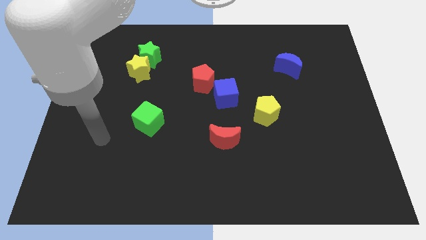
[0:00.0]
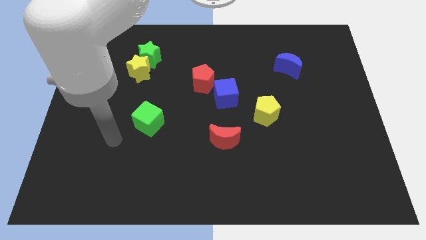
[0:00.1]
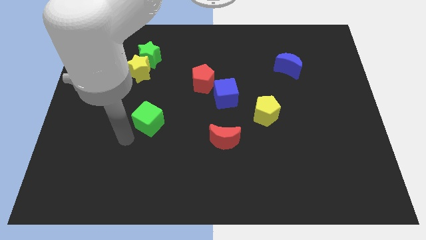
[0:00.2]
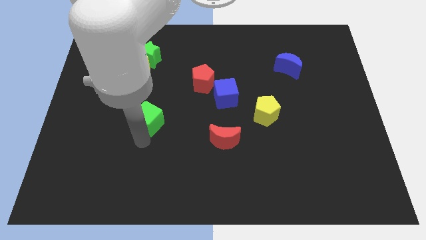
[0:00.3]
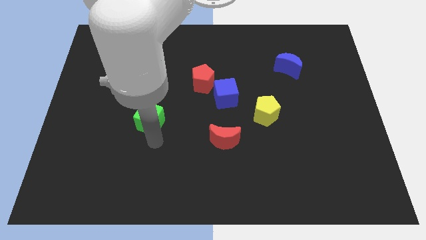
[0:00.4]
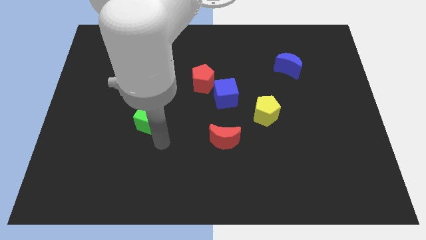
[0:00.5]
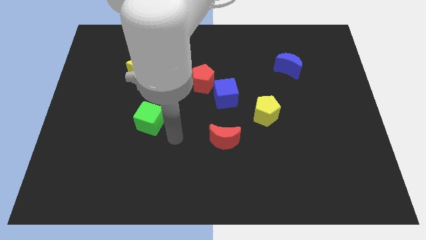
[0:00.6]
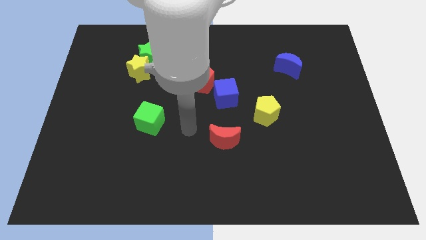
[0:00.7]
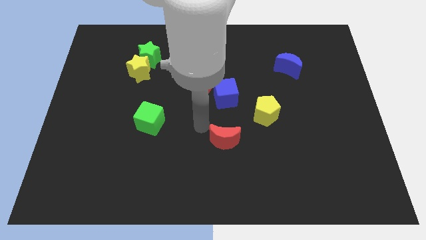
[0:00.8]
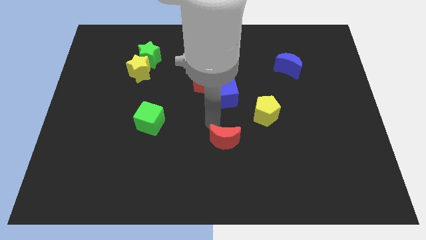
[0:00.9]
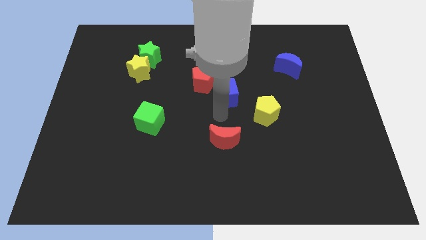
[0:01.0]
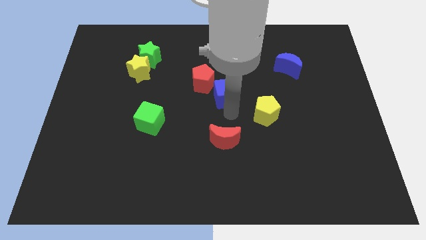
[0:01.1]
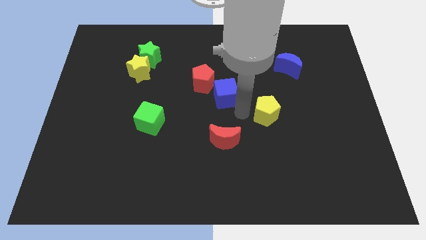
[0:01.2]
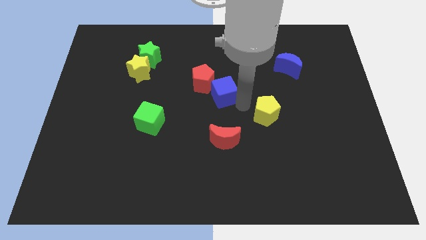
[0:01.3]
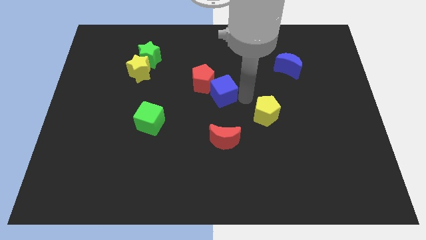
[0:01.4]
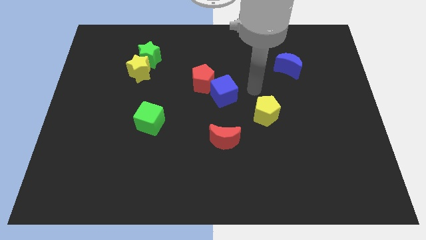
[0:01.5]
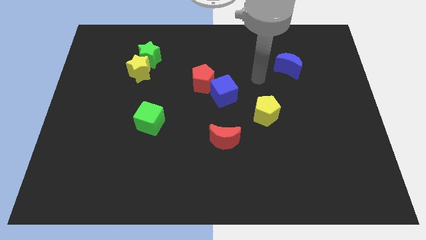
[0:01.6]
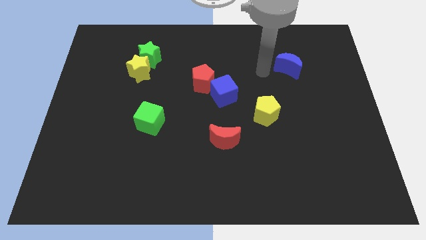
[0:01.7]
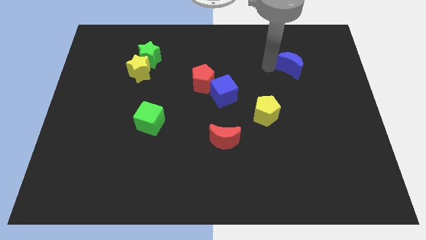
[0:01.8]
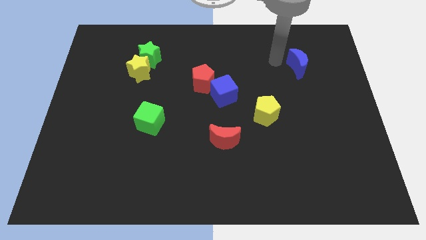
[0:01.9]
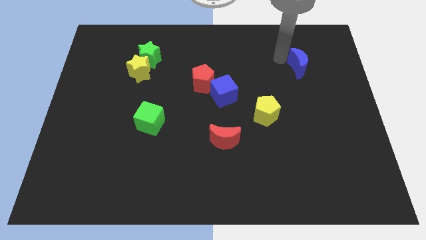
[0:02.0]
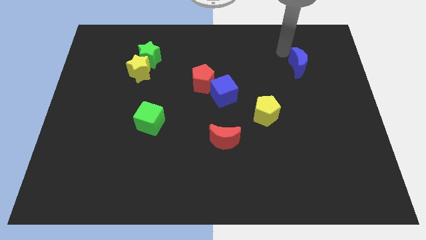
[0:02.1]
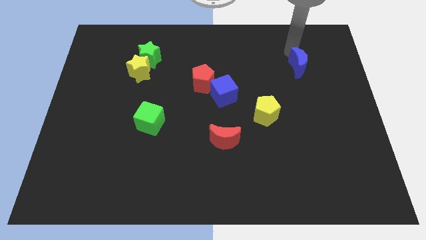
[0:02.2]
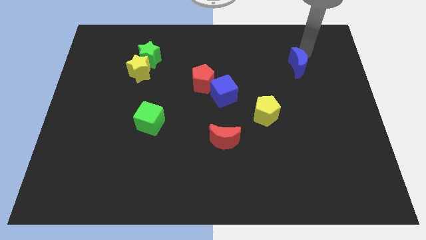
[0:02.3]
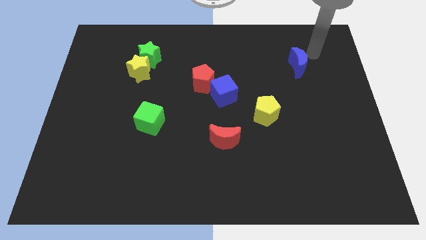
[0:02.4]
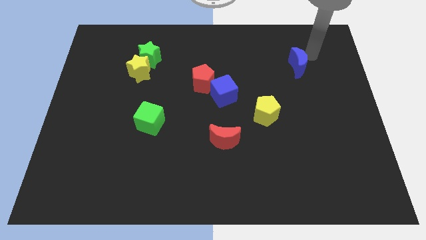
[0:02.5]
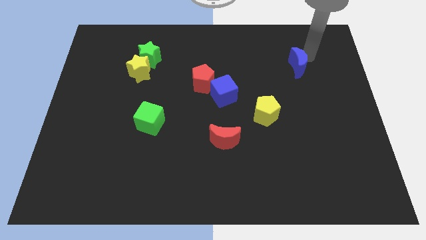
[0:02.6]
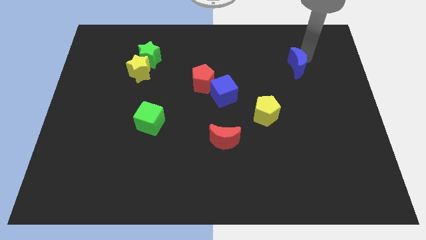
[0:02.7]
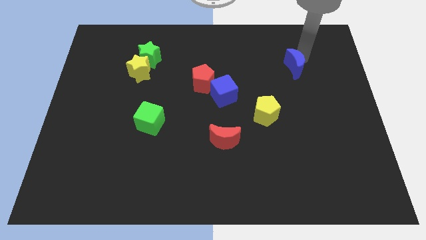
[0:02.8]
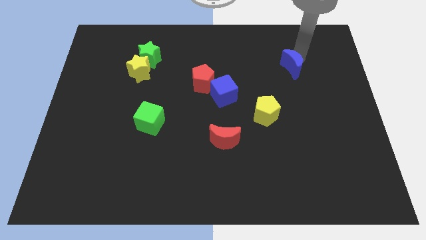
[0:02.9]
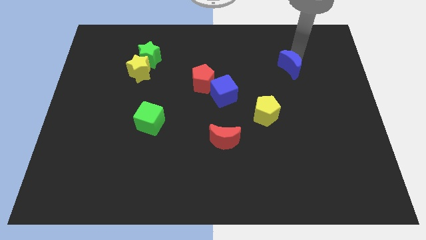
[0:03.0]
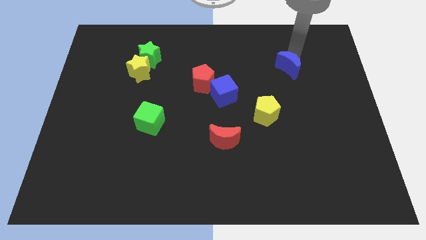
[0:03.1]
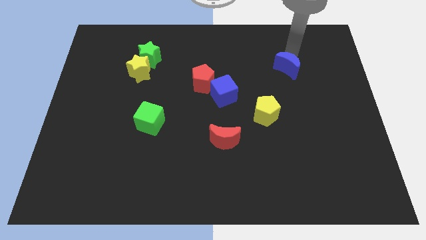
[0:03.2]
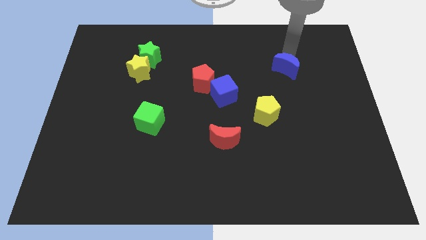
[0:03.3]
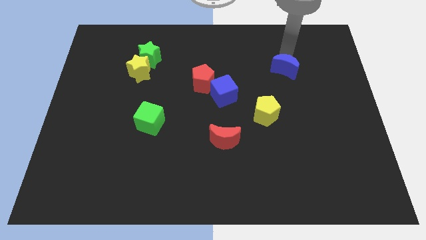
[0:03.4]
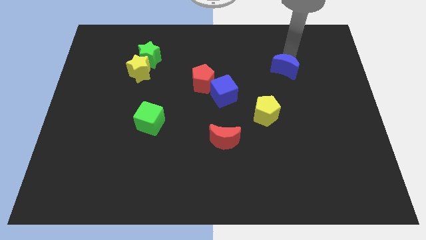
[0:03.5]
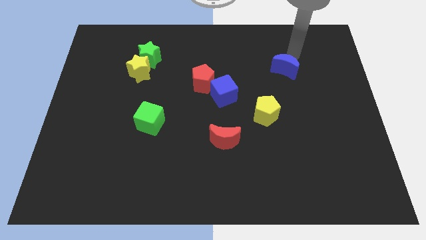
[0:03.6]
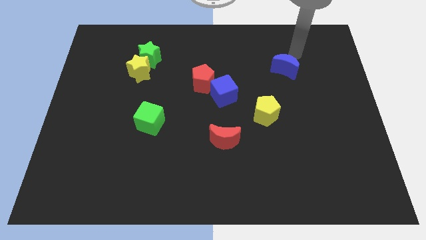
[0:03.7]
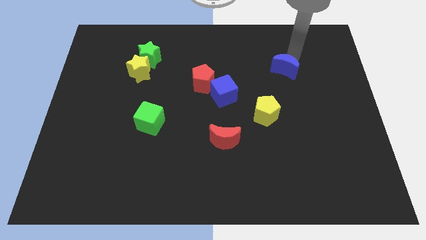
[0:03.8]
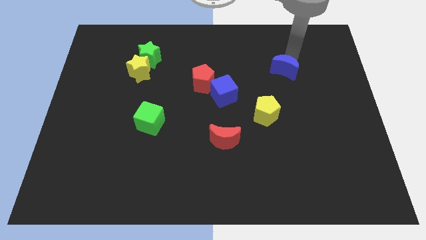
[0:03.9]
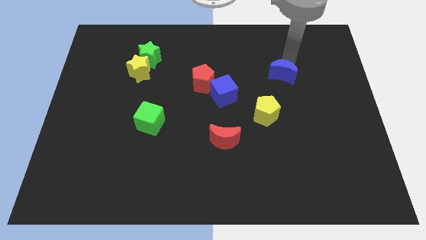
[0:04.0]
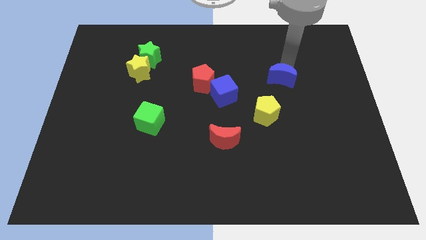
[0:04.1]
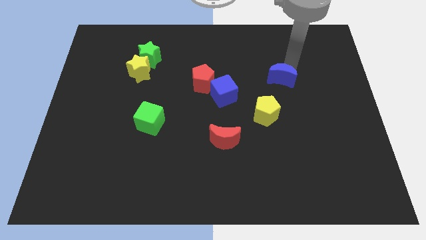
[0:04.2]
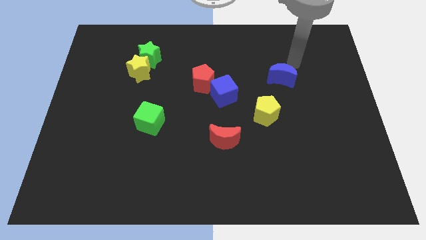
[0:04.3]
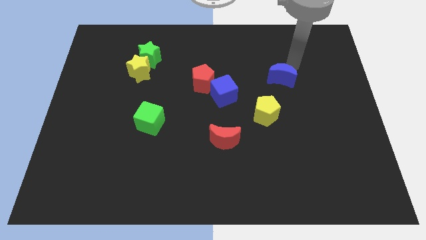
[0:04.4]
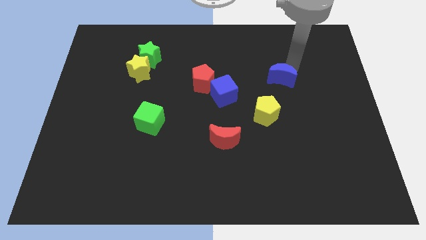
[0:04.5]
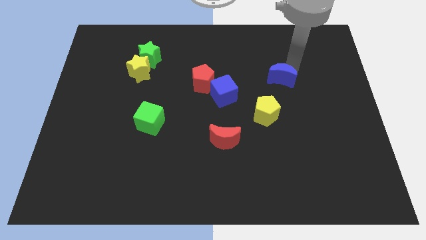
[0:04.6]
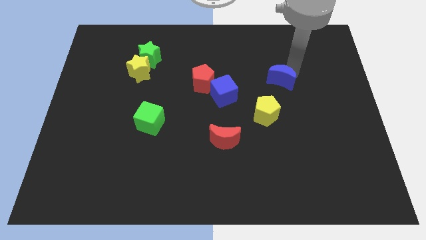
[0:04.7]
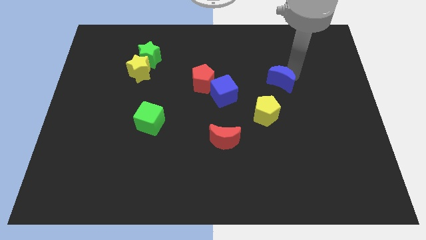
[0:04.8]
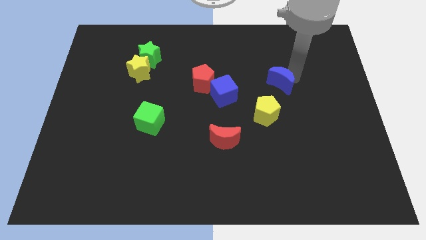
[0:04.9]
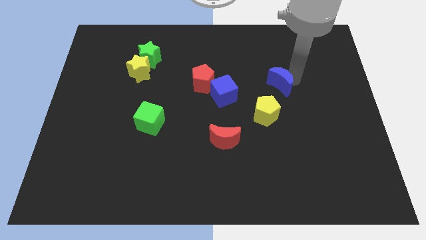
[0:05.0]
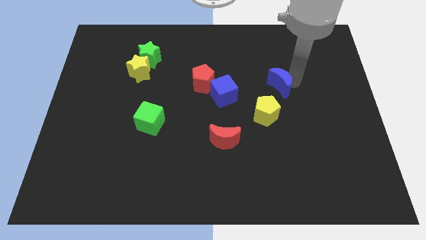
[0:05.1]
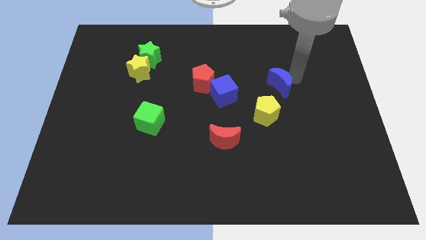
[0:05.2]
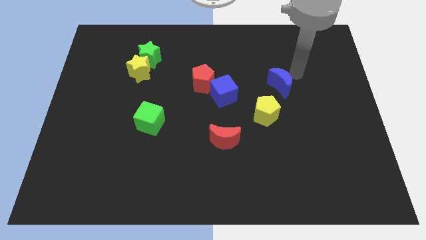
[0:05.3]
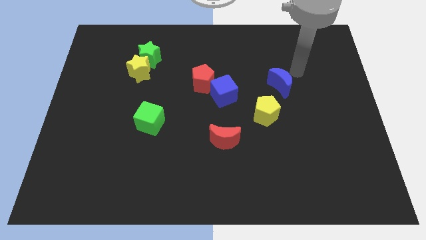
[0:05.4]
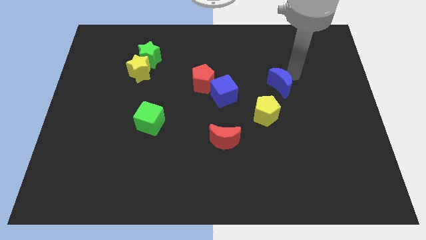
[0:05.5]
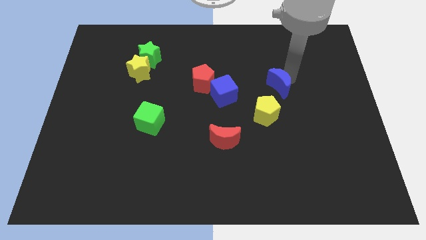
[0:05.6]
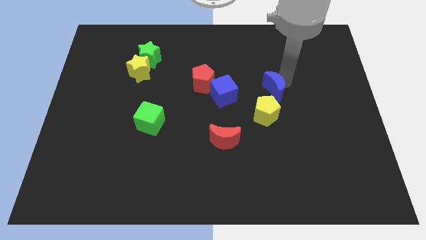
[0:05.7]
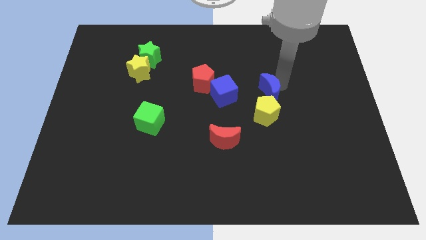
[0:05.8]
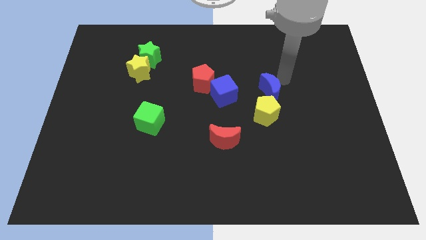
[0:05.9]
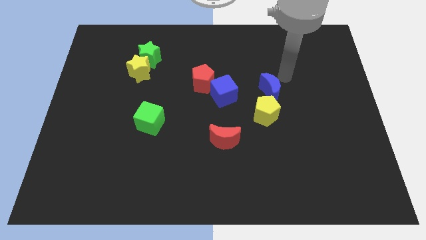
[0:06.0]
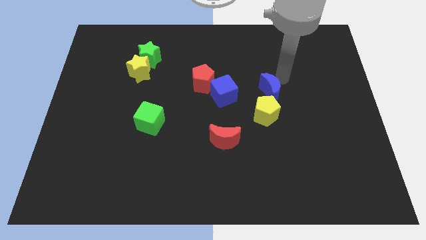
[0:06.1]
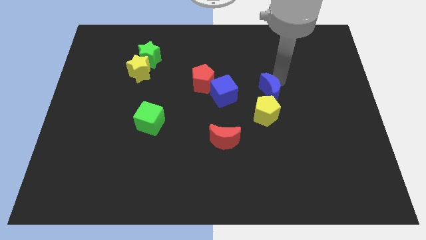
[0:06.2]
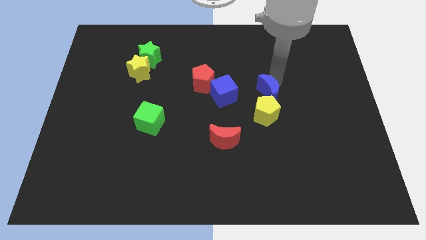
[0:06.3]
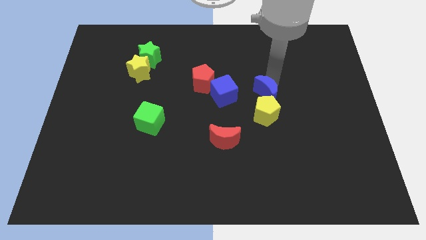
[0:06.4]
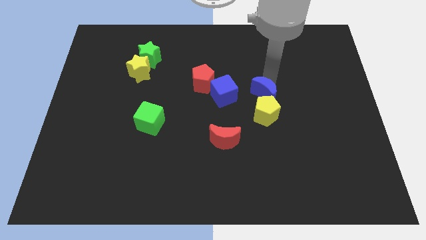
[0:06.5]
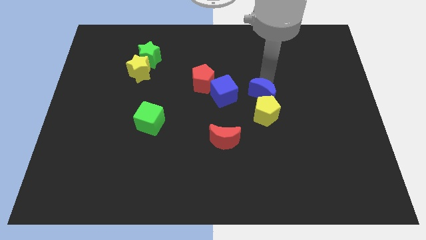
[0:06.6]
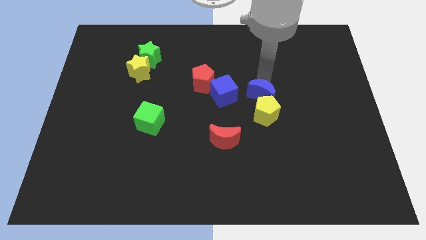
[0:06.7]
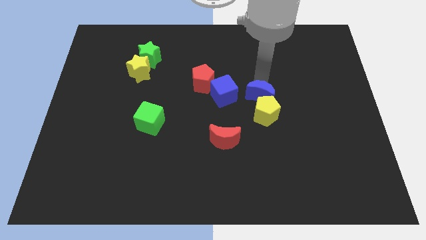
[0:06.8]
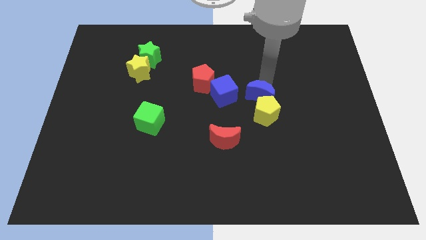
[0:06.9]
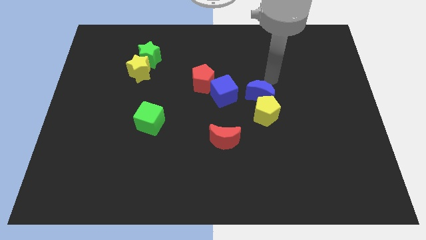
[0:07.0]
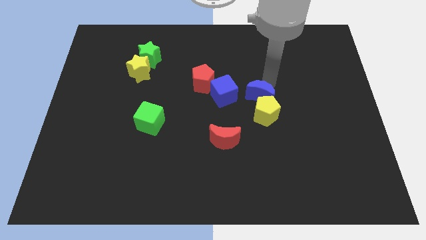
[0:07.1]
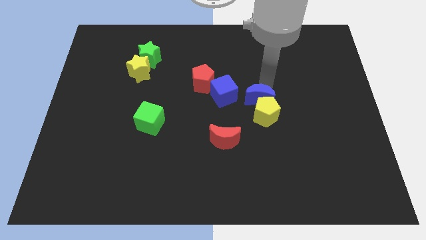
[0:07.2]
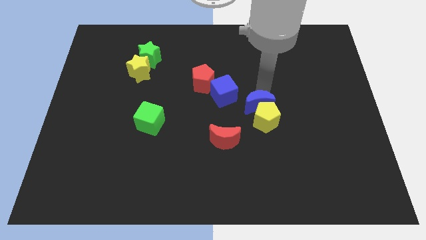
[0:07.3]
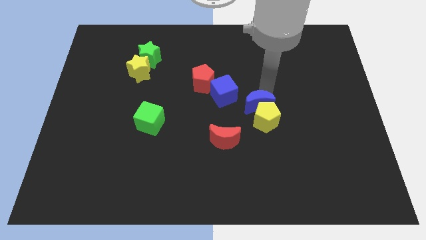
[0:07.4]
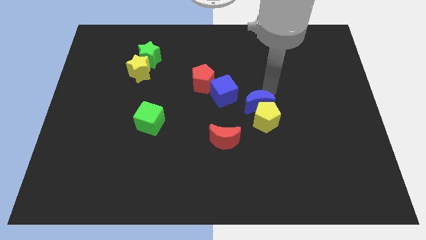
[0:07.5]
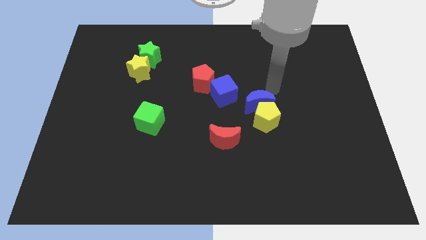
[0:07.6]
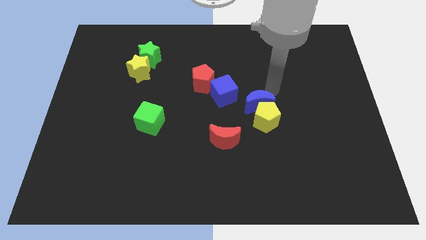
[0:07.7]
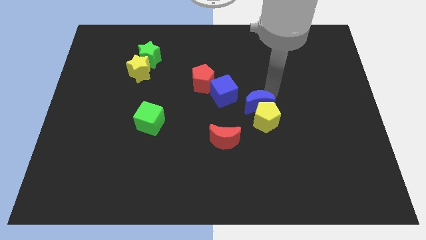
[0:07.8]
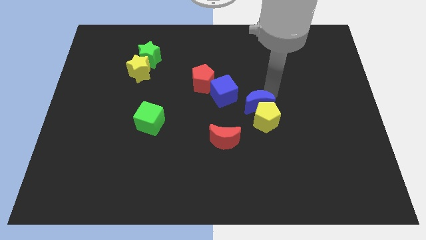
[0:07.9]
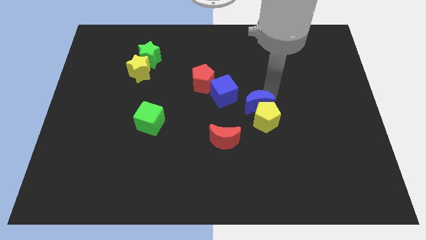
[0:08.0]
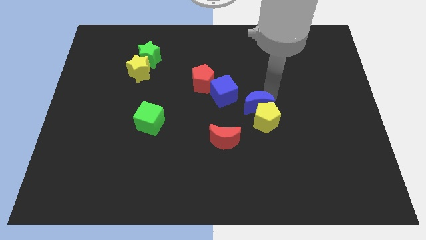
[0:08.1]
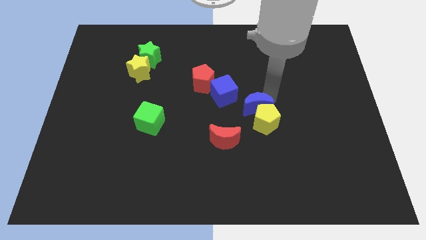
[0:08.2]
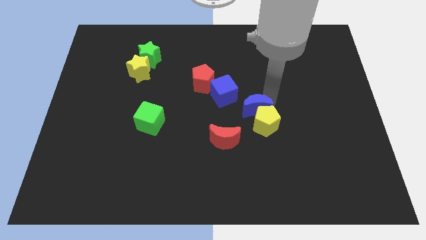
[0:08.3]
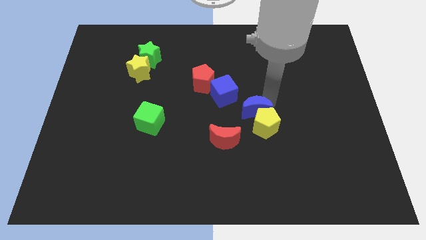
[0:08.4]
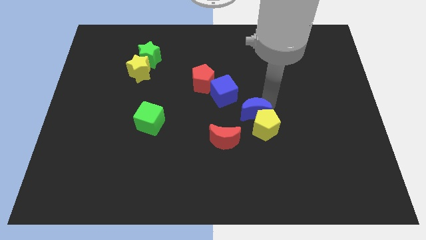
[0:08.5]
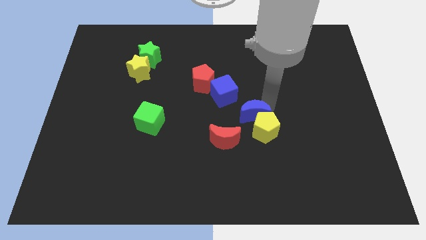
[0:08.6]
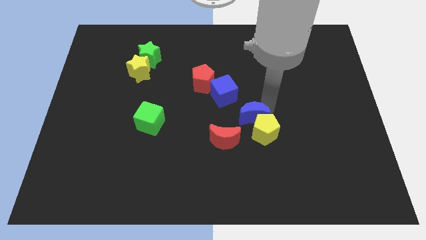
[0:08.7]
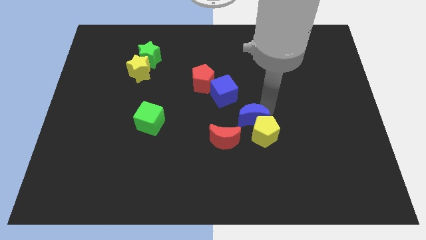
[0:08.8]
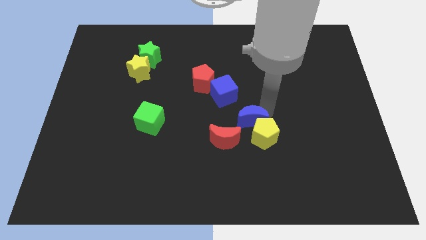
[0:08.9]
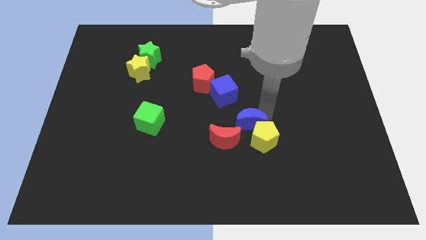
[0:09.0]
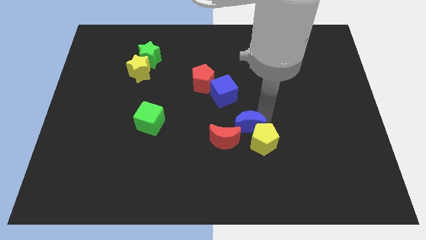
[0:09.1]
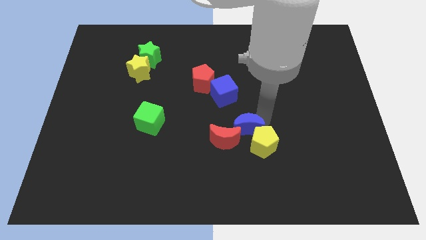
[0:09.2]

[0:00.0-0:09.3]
move the blue moon towards the red moon
